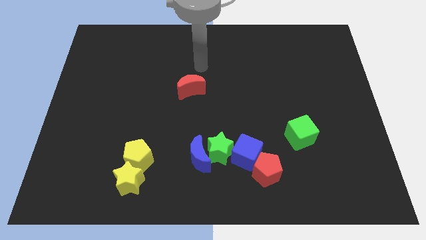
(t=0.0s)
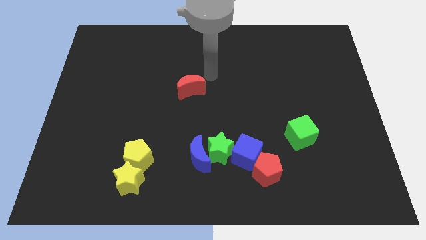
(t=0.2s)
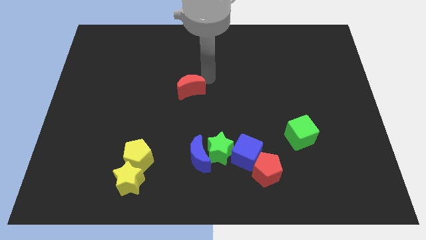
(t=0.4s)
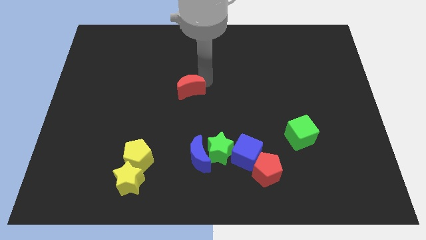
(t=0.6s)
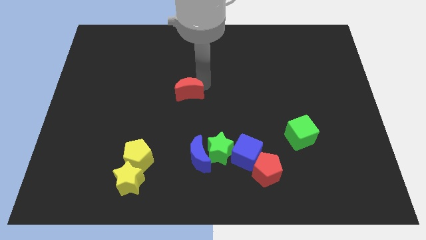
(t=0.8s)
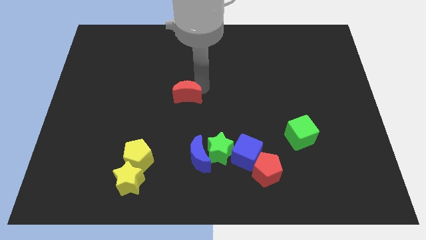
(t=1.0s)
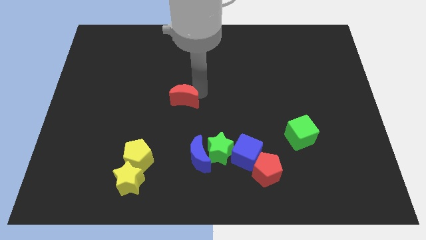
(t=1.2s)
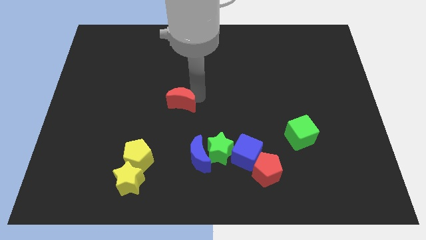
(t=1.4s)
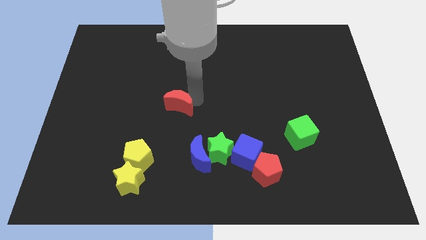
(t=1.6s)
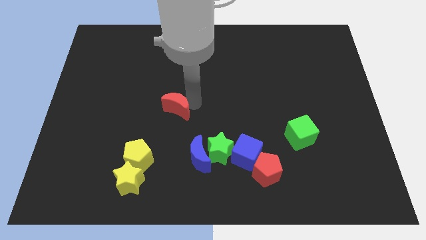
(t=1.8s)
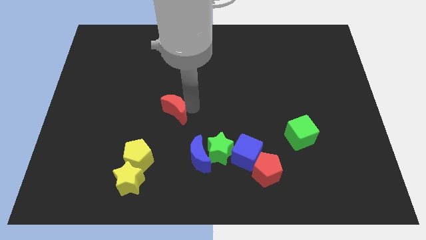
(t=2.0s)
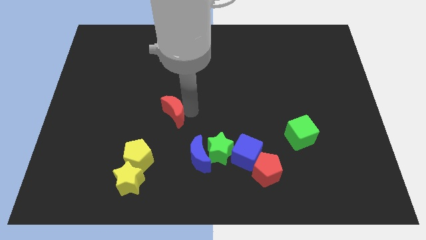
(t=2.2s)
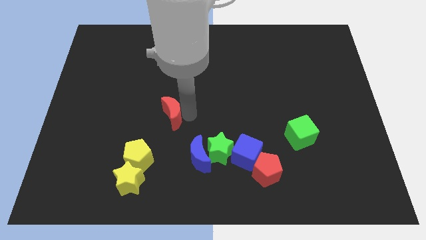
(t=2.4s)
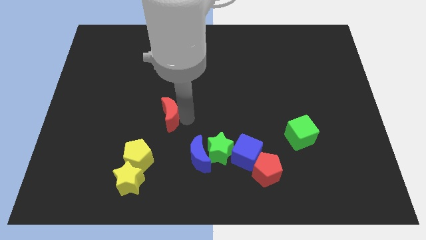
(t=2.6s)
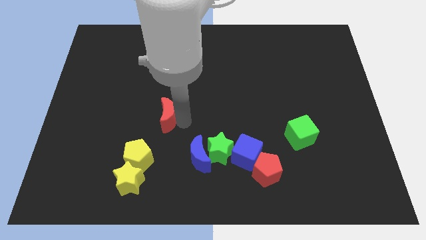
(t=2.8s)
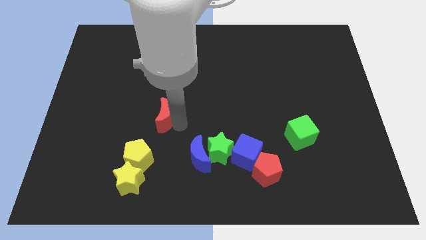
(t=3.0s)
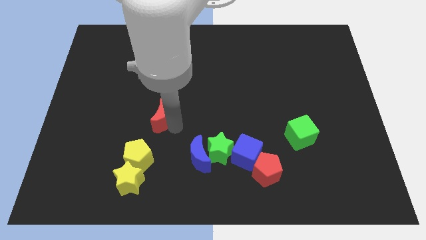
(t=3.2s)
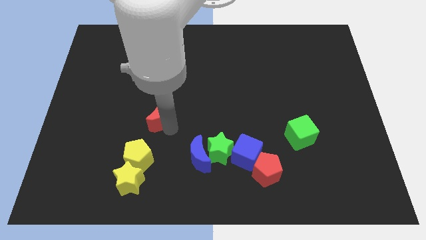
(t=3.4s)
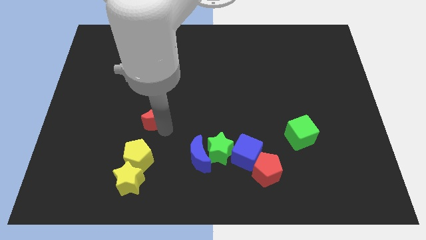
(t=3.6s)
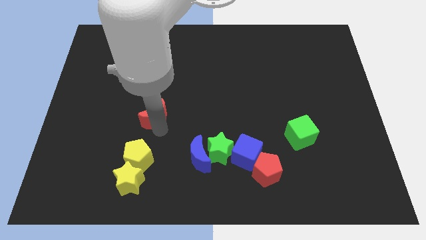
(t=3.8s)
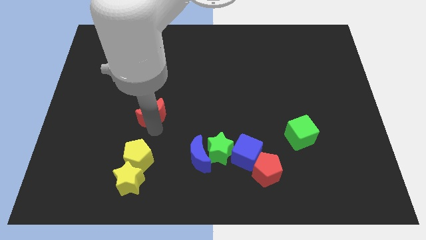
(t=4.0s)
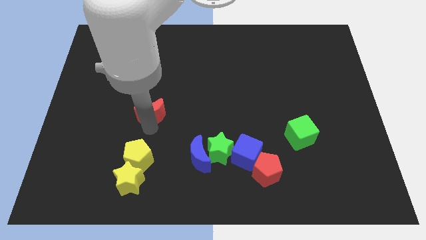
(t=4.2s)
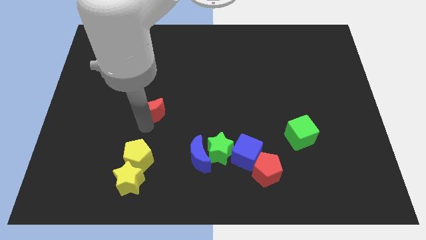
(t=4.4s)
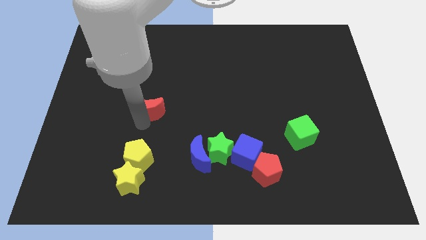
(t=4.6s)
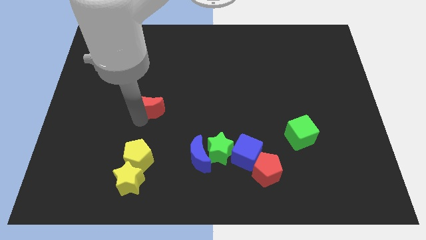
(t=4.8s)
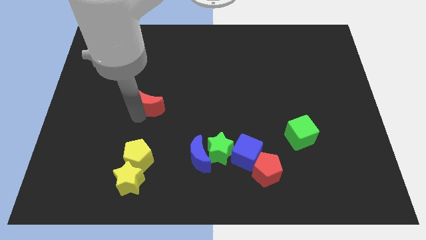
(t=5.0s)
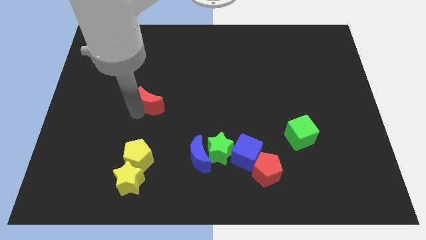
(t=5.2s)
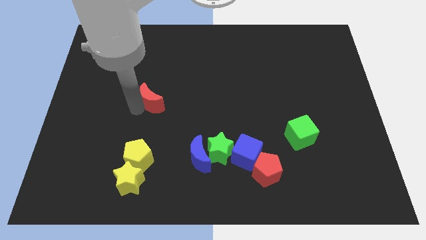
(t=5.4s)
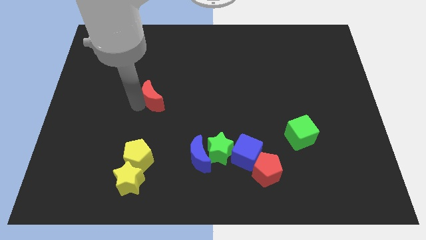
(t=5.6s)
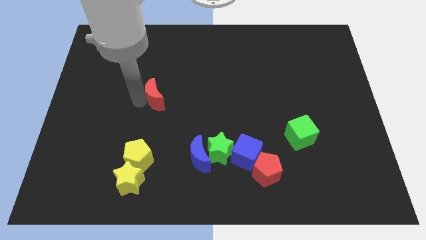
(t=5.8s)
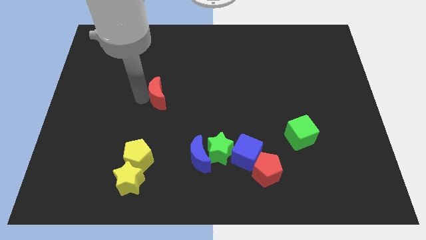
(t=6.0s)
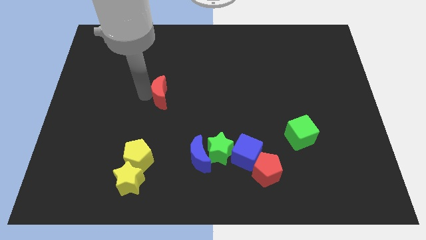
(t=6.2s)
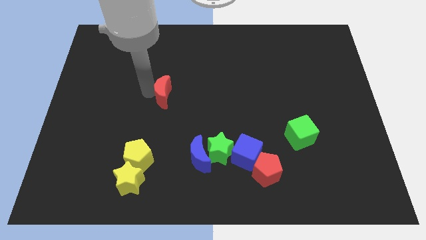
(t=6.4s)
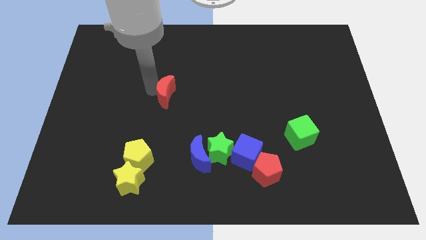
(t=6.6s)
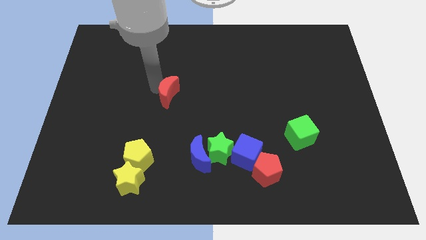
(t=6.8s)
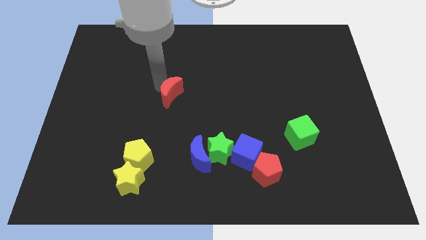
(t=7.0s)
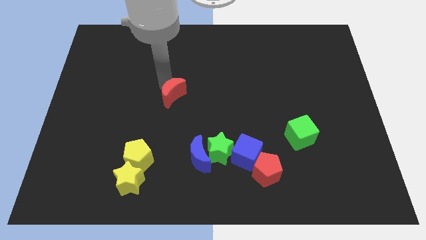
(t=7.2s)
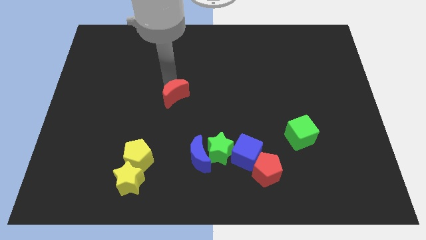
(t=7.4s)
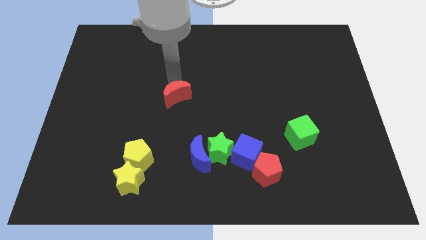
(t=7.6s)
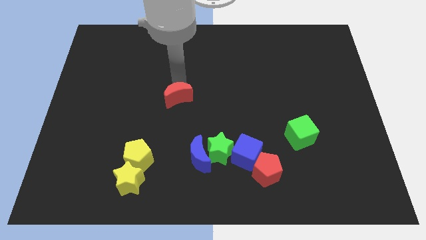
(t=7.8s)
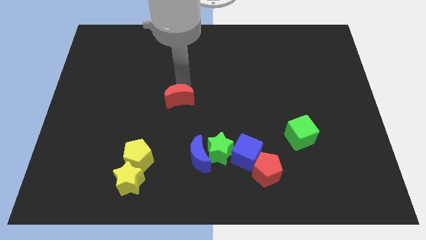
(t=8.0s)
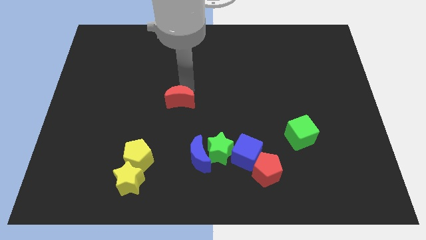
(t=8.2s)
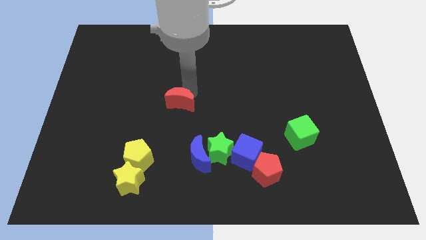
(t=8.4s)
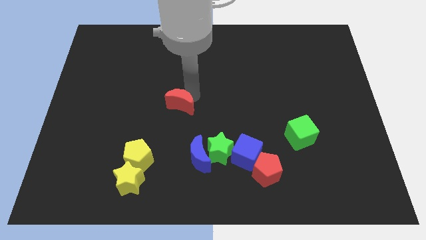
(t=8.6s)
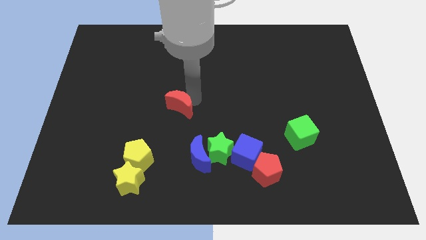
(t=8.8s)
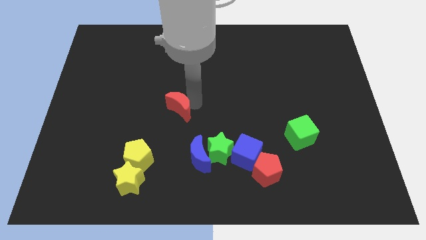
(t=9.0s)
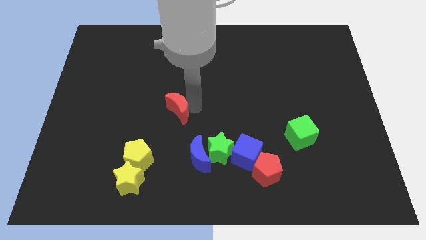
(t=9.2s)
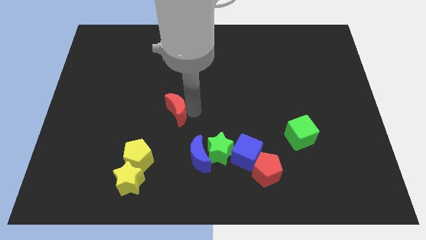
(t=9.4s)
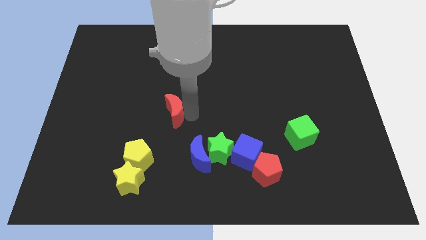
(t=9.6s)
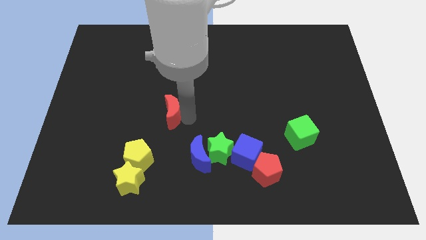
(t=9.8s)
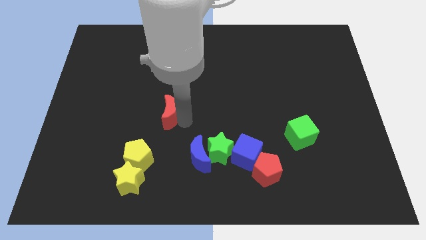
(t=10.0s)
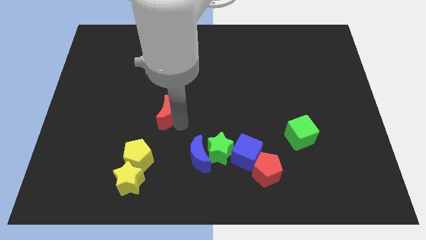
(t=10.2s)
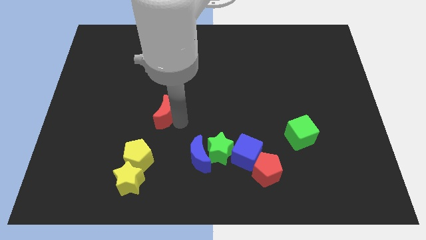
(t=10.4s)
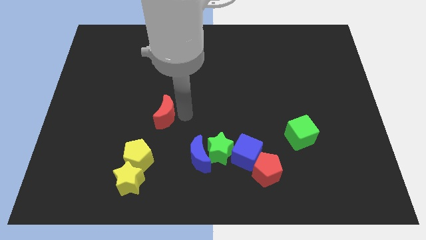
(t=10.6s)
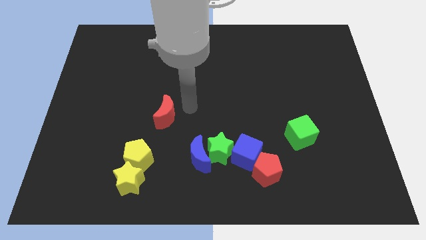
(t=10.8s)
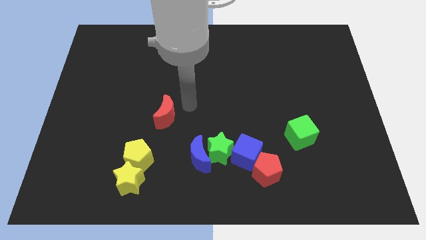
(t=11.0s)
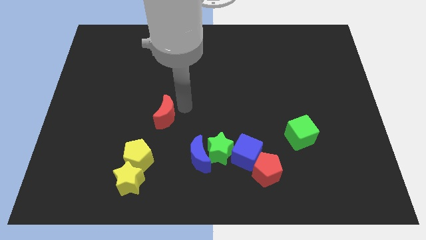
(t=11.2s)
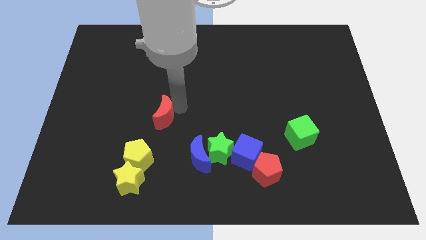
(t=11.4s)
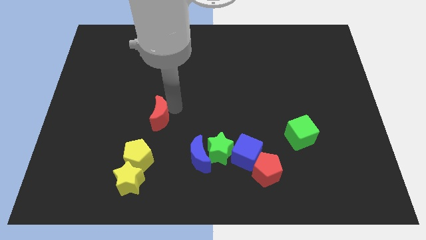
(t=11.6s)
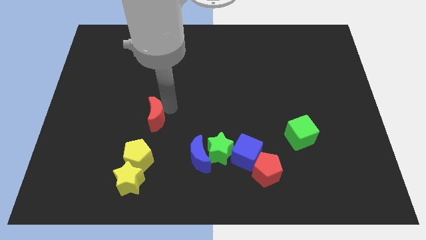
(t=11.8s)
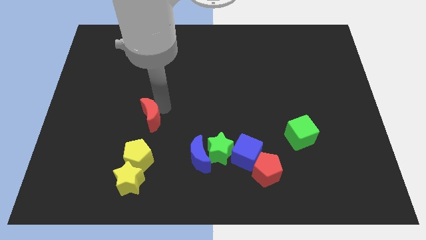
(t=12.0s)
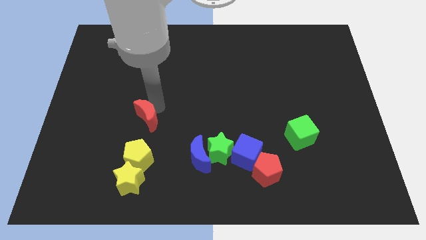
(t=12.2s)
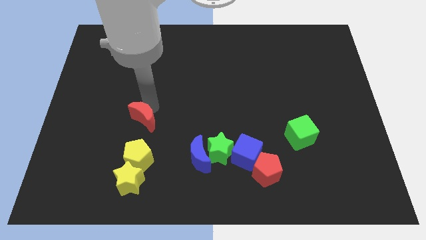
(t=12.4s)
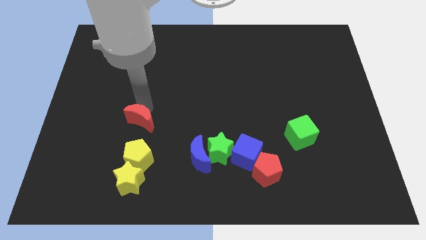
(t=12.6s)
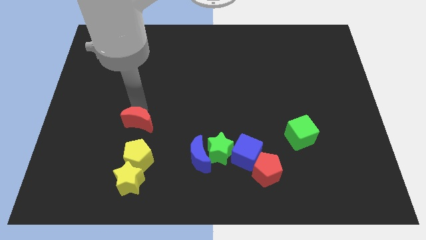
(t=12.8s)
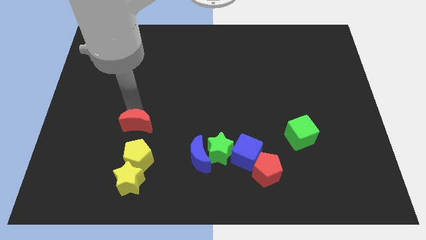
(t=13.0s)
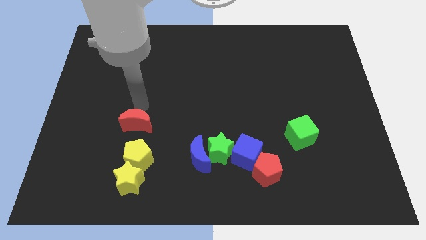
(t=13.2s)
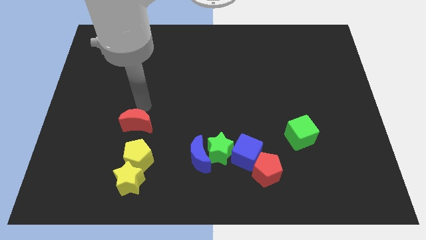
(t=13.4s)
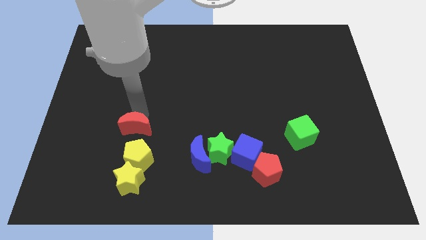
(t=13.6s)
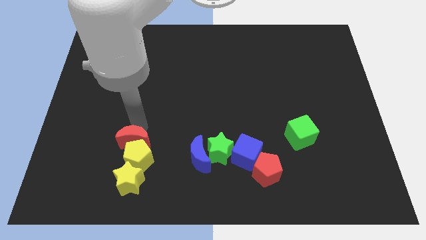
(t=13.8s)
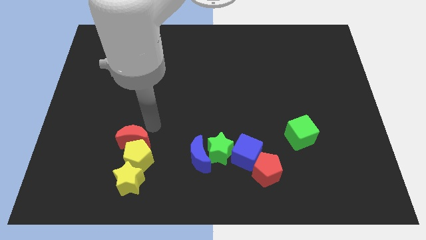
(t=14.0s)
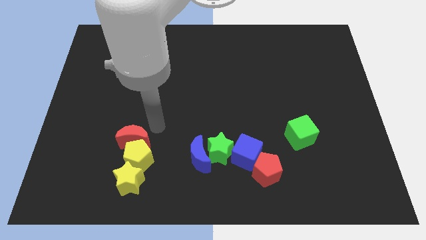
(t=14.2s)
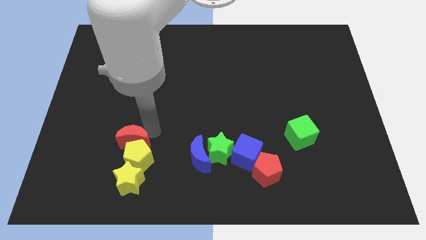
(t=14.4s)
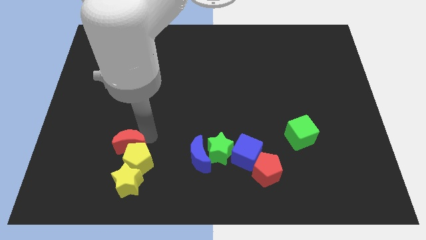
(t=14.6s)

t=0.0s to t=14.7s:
slide the red moon downwards and to the left

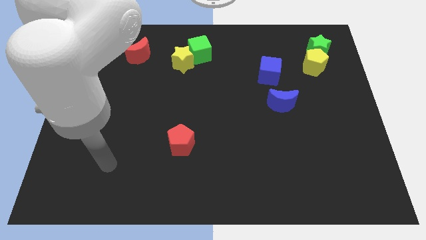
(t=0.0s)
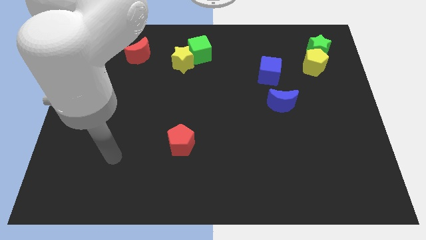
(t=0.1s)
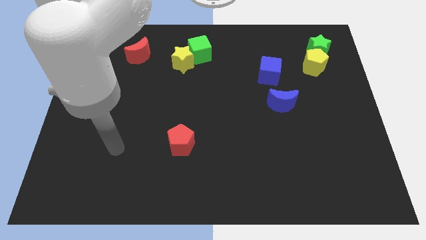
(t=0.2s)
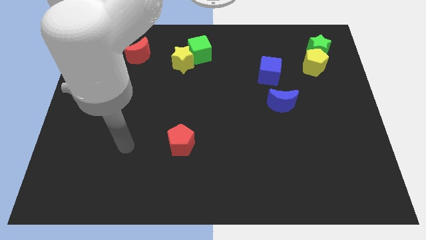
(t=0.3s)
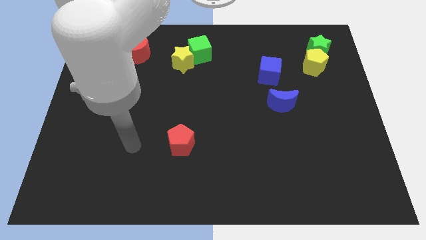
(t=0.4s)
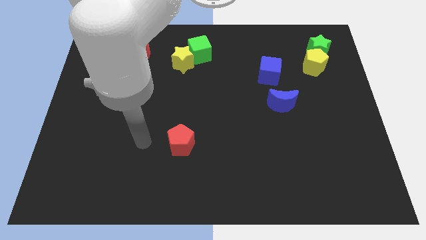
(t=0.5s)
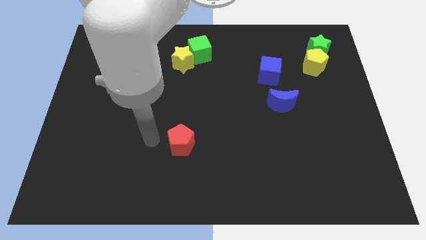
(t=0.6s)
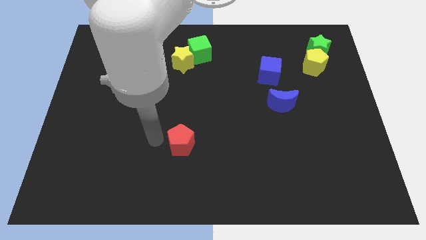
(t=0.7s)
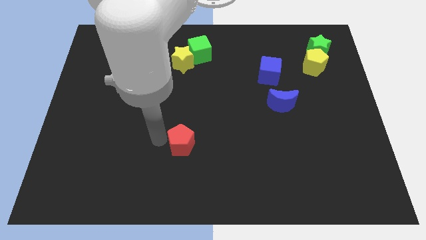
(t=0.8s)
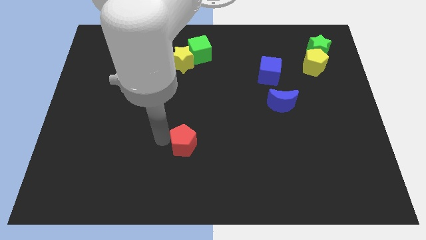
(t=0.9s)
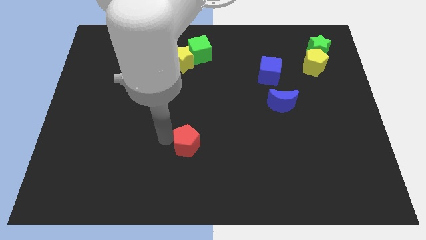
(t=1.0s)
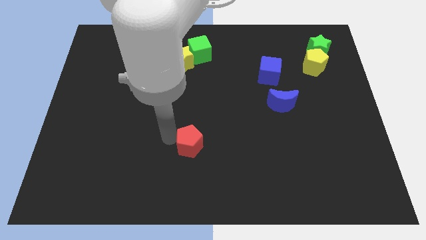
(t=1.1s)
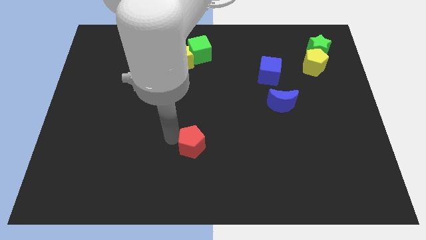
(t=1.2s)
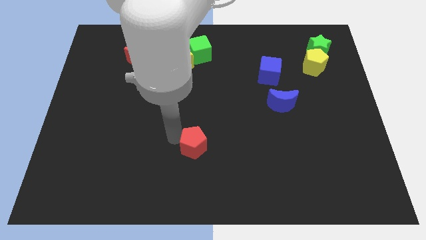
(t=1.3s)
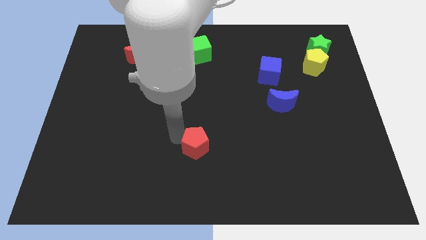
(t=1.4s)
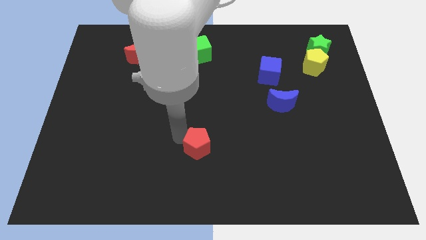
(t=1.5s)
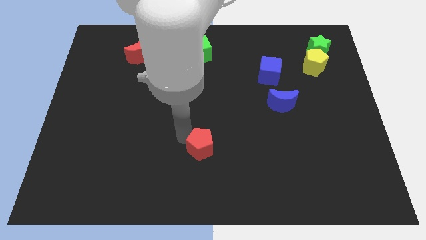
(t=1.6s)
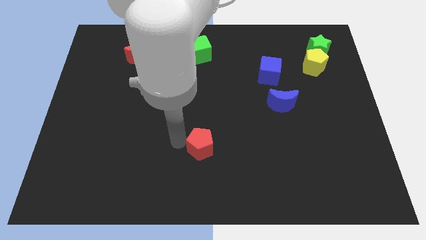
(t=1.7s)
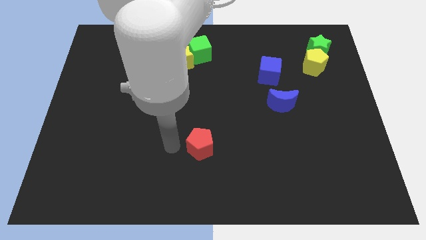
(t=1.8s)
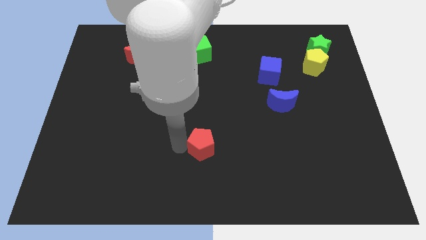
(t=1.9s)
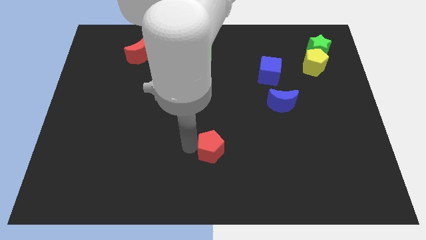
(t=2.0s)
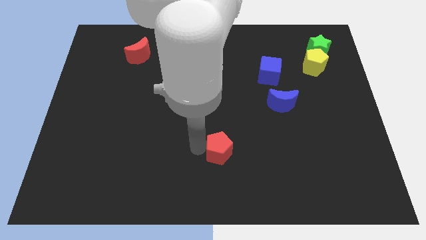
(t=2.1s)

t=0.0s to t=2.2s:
move the red pentagon slightly right
